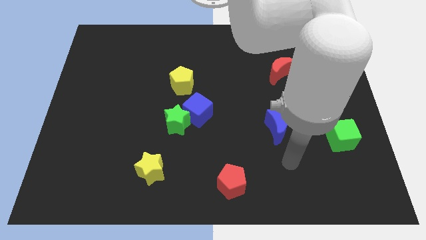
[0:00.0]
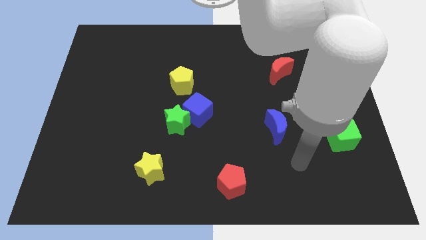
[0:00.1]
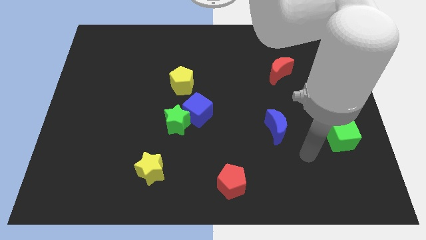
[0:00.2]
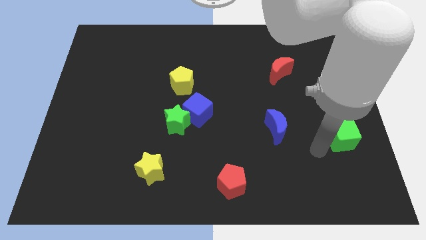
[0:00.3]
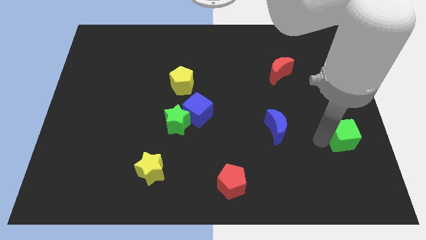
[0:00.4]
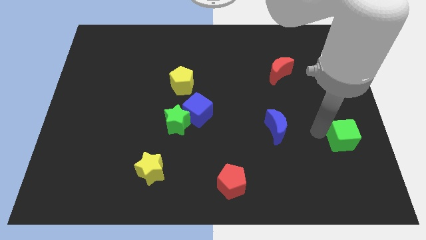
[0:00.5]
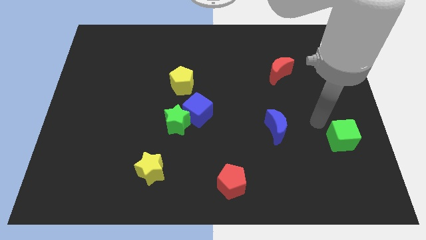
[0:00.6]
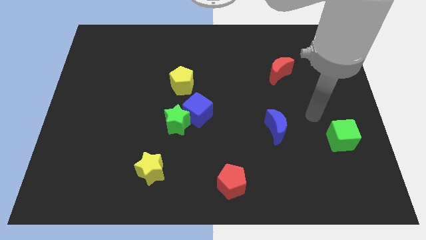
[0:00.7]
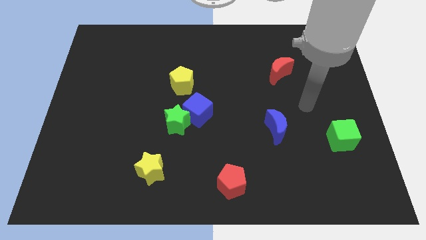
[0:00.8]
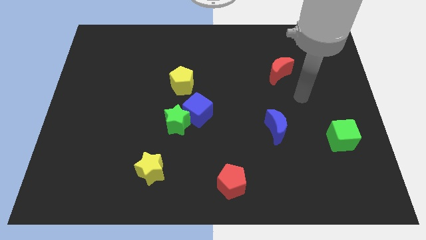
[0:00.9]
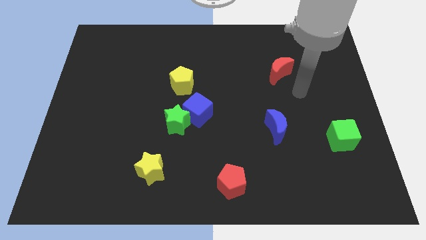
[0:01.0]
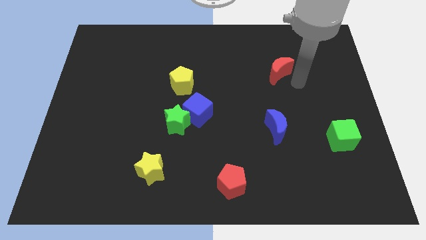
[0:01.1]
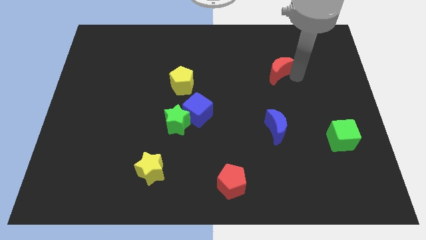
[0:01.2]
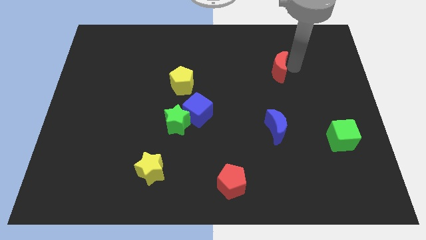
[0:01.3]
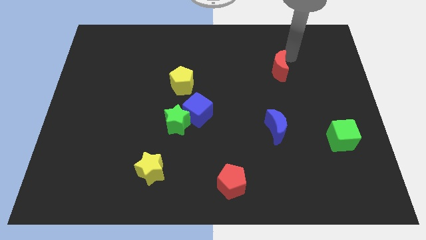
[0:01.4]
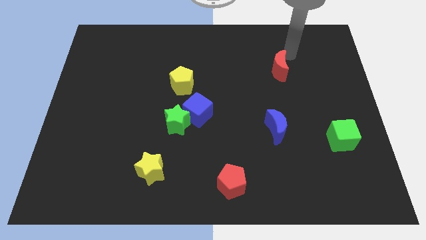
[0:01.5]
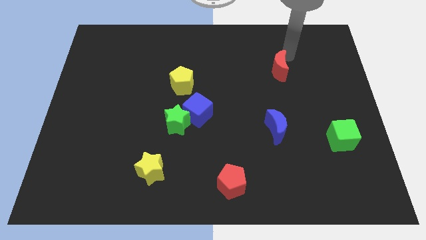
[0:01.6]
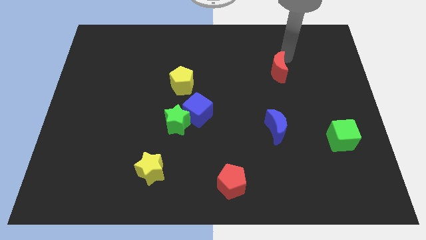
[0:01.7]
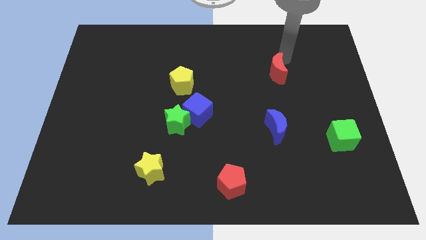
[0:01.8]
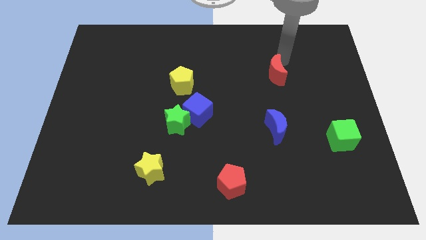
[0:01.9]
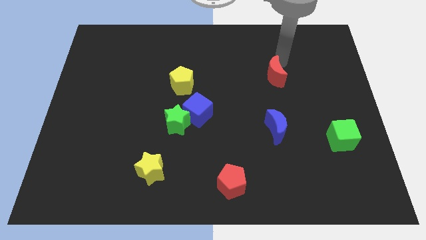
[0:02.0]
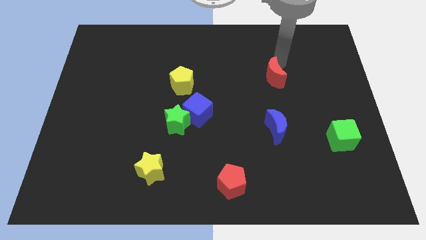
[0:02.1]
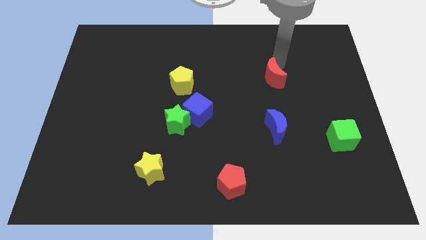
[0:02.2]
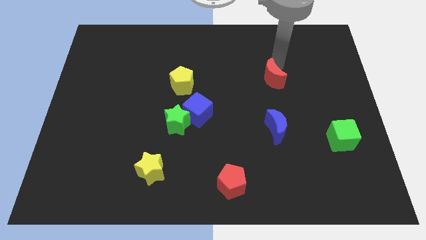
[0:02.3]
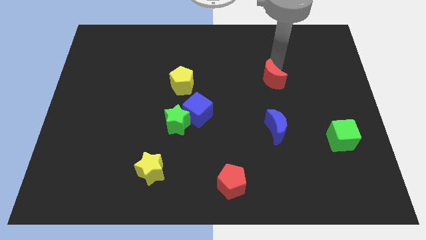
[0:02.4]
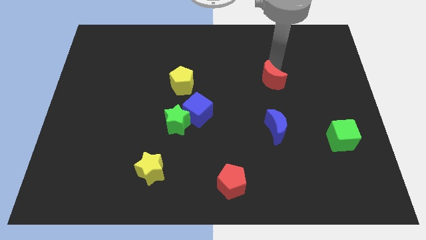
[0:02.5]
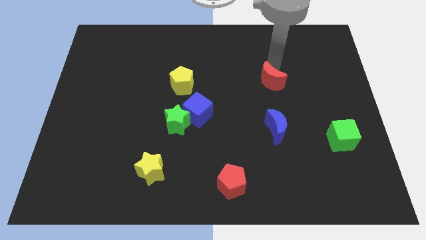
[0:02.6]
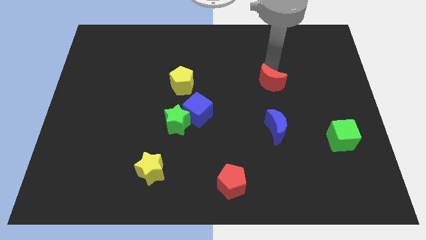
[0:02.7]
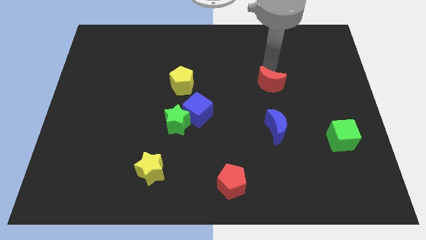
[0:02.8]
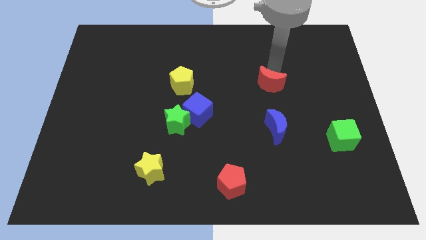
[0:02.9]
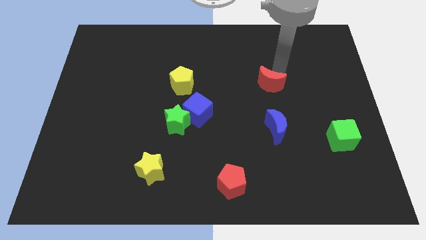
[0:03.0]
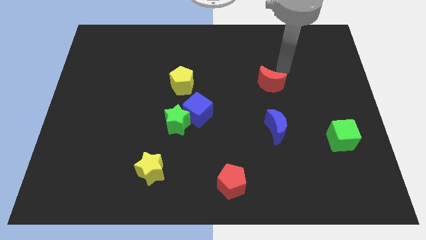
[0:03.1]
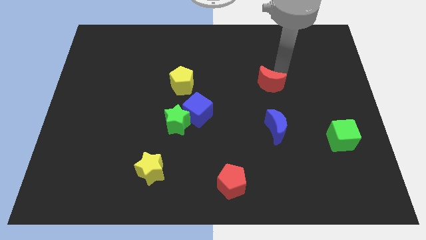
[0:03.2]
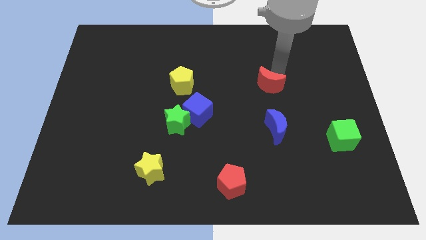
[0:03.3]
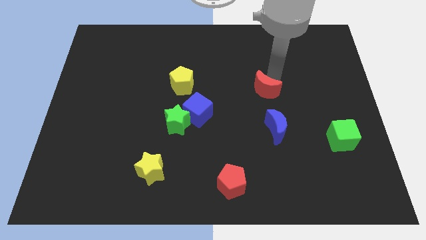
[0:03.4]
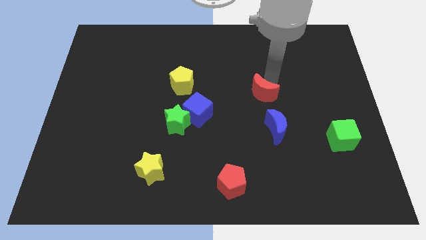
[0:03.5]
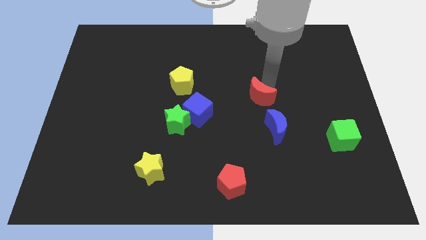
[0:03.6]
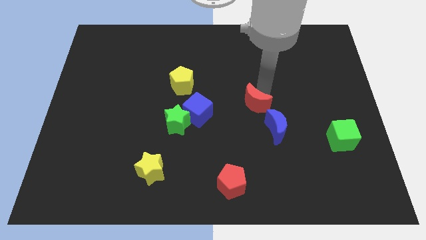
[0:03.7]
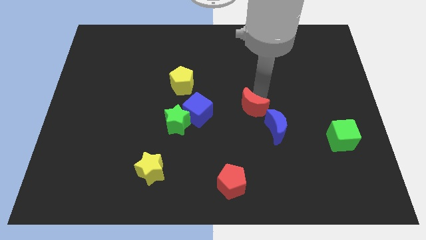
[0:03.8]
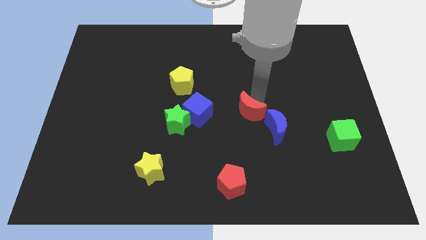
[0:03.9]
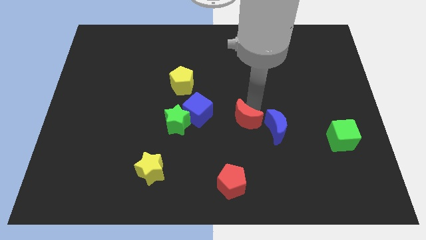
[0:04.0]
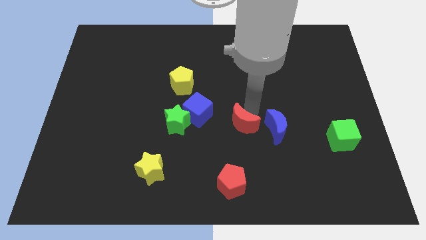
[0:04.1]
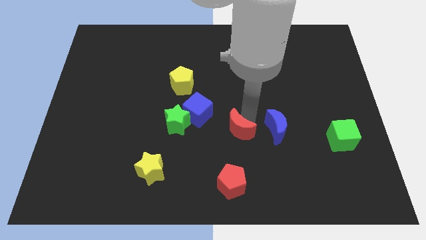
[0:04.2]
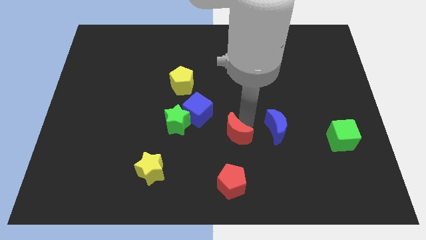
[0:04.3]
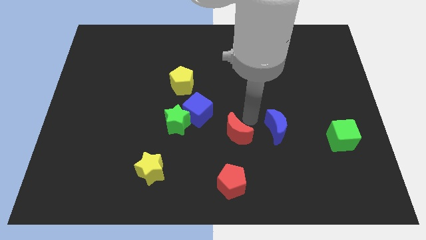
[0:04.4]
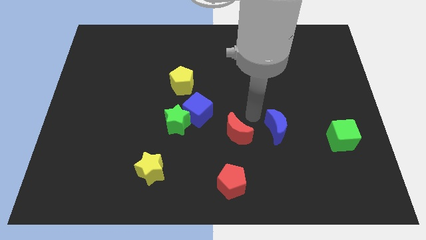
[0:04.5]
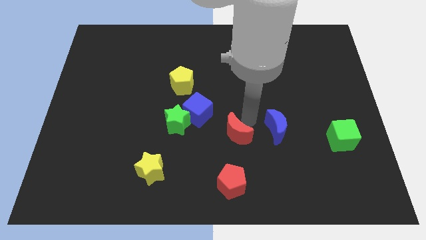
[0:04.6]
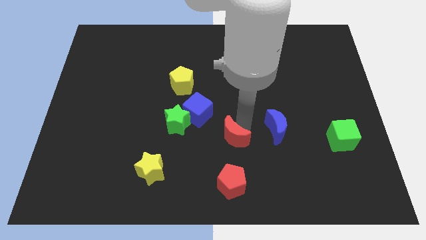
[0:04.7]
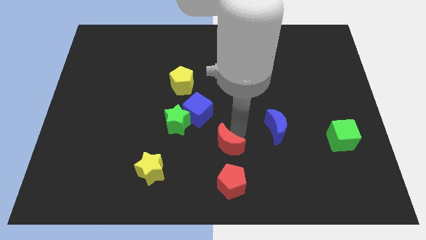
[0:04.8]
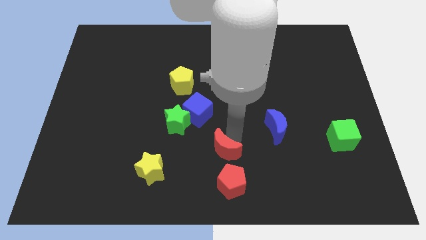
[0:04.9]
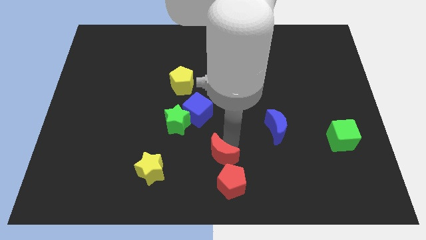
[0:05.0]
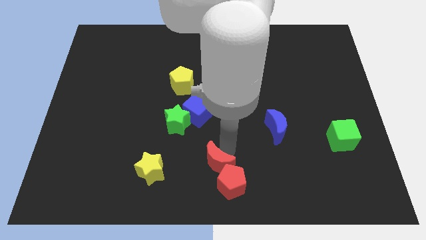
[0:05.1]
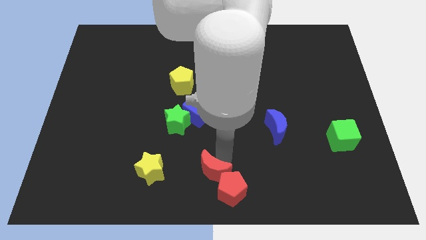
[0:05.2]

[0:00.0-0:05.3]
put the red moon just left of the red pentagon

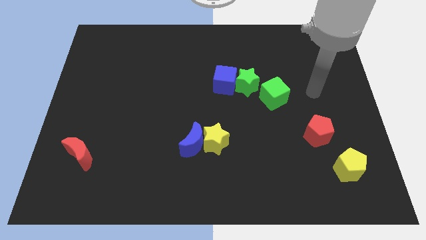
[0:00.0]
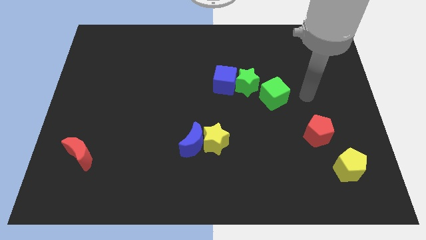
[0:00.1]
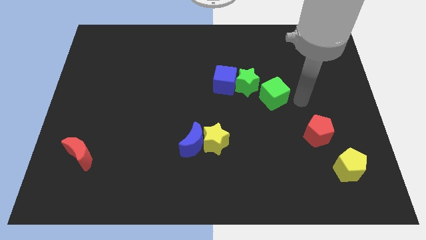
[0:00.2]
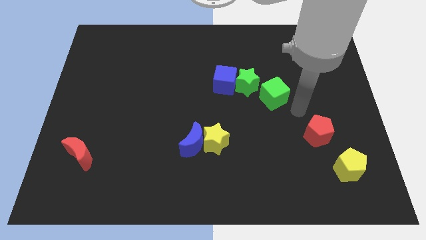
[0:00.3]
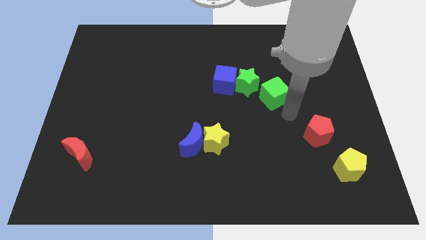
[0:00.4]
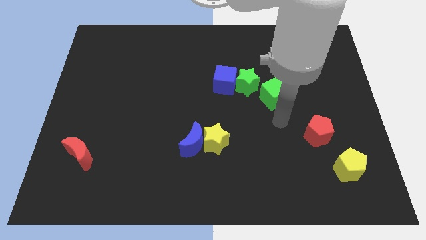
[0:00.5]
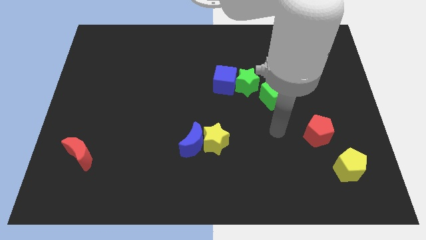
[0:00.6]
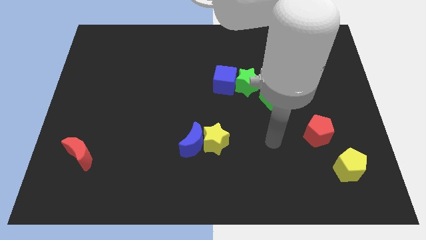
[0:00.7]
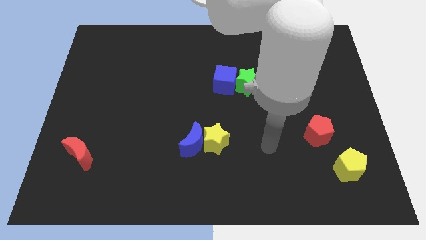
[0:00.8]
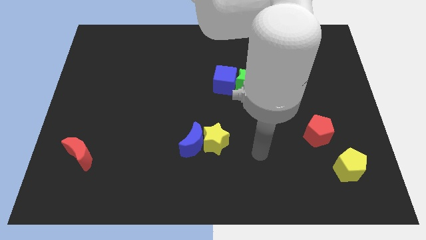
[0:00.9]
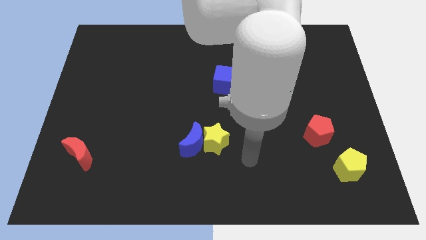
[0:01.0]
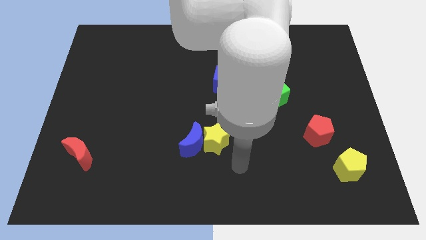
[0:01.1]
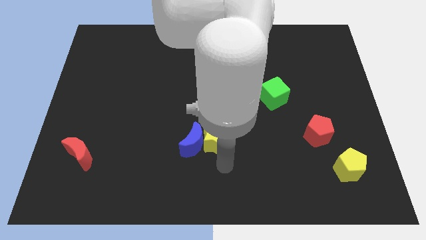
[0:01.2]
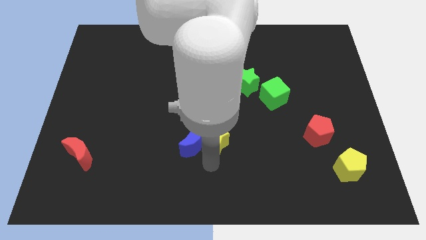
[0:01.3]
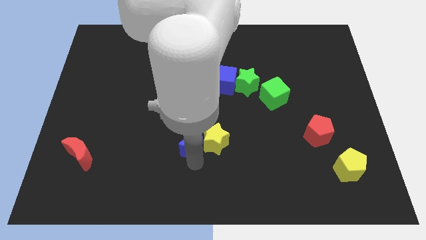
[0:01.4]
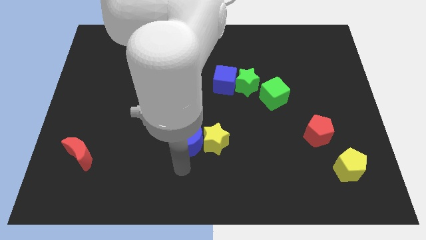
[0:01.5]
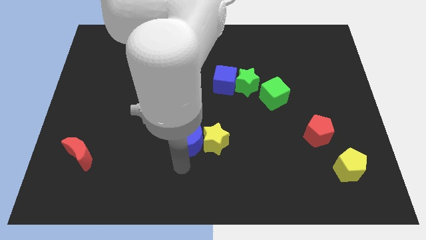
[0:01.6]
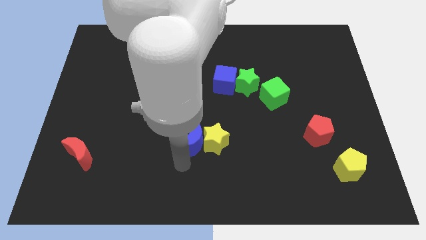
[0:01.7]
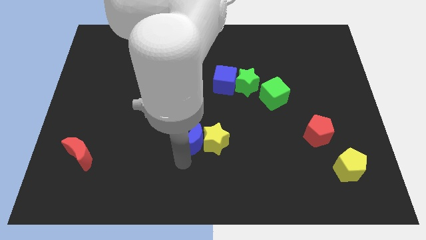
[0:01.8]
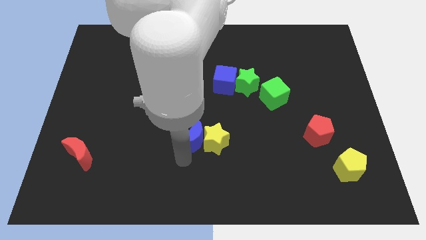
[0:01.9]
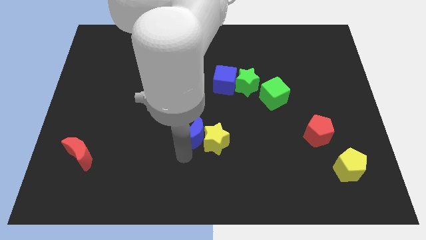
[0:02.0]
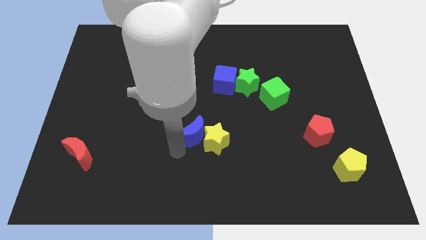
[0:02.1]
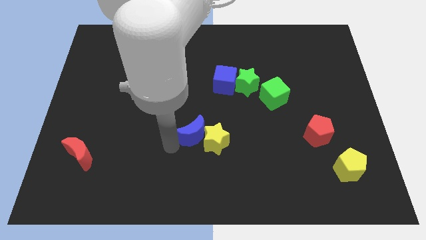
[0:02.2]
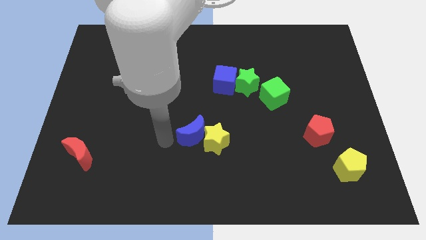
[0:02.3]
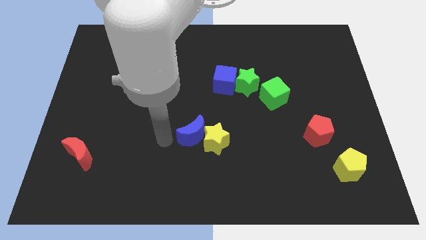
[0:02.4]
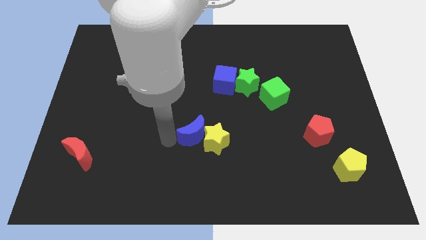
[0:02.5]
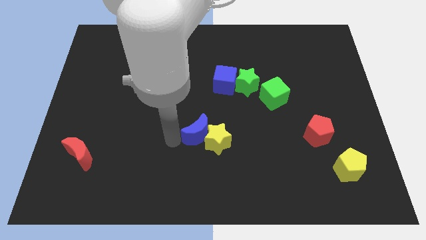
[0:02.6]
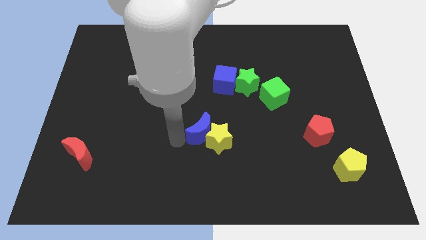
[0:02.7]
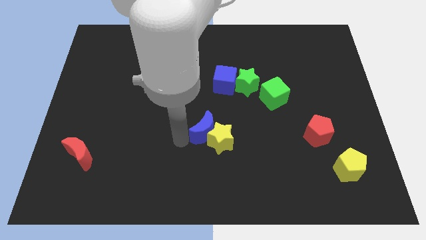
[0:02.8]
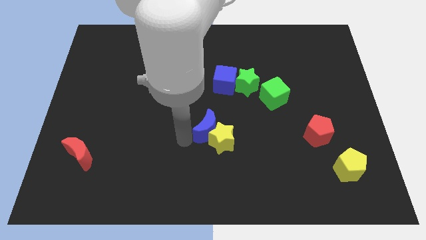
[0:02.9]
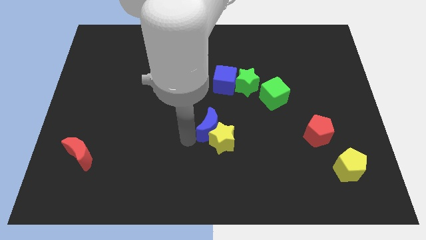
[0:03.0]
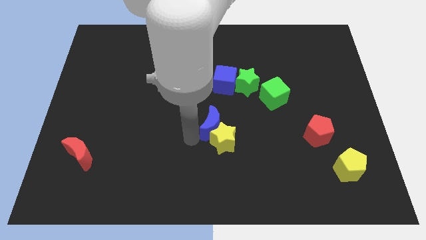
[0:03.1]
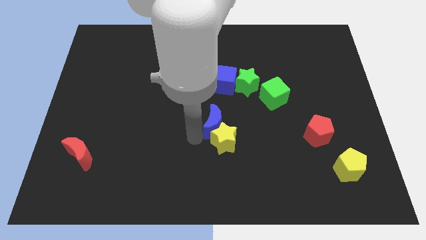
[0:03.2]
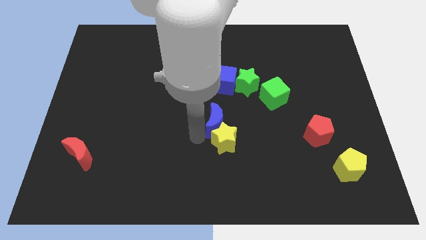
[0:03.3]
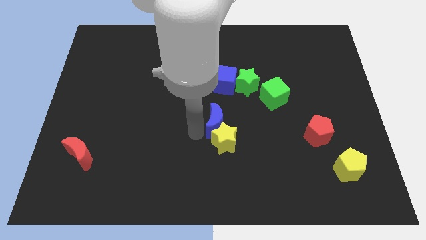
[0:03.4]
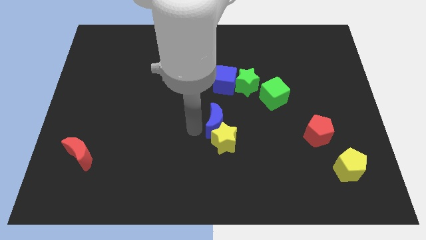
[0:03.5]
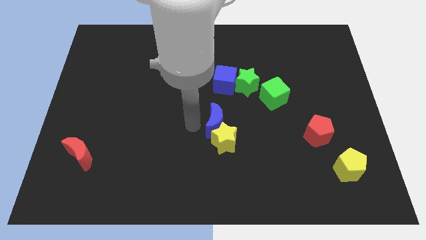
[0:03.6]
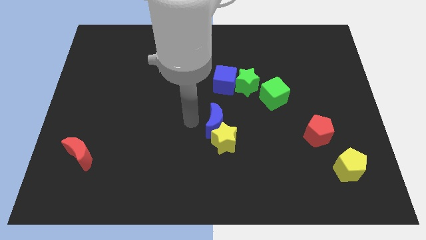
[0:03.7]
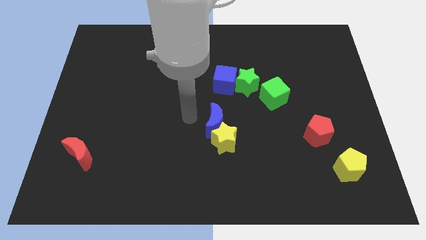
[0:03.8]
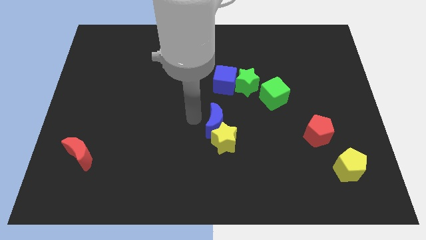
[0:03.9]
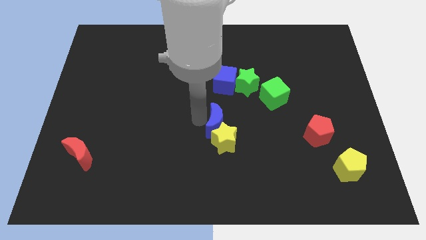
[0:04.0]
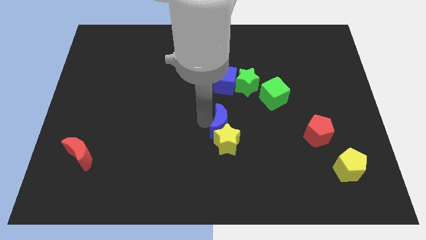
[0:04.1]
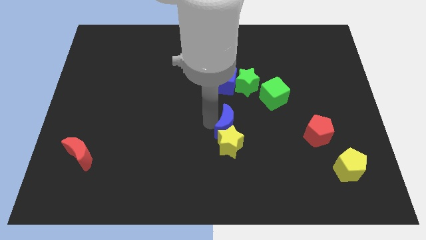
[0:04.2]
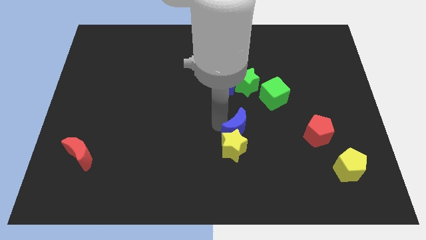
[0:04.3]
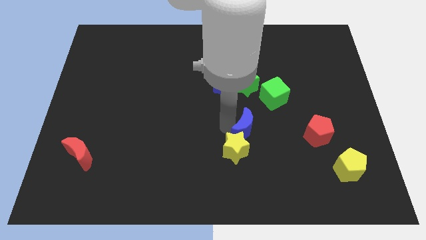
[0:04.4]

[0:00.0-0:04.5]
slide the blue moon just left of the red pentagon
